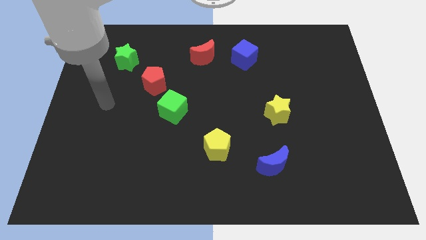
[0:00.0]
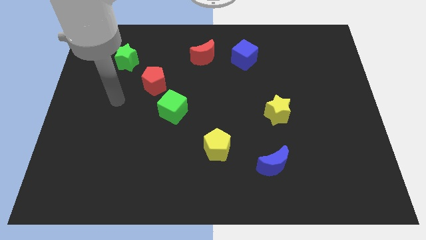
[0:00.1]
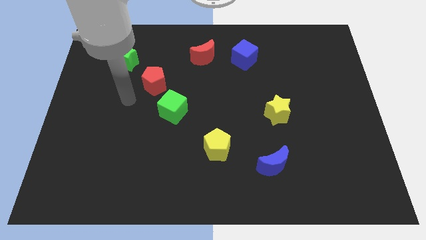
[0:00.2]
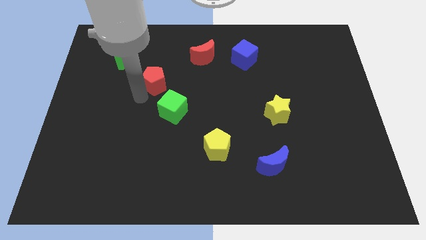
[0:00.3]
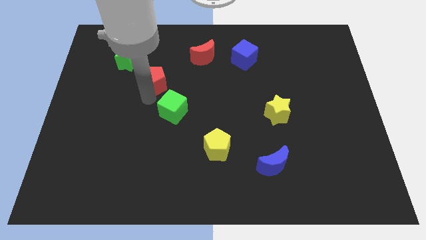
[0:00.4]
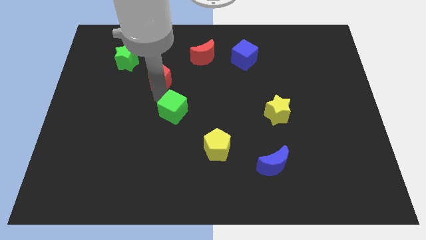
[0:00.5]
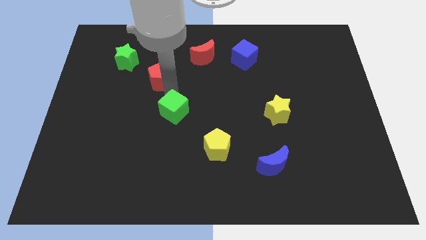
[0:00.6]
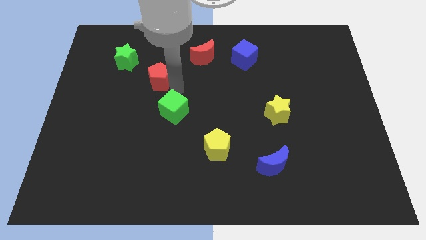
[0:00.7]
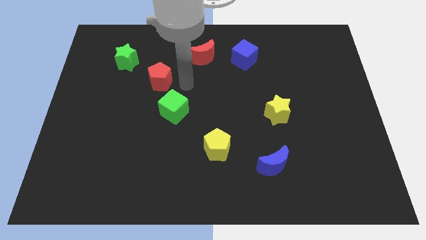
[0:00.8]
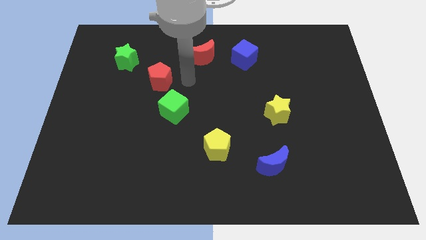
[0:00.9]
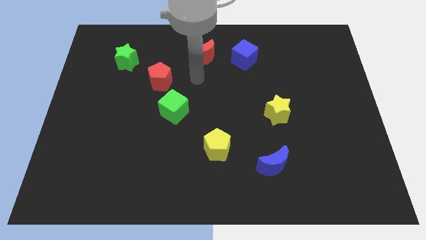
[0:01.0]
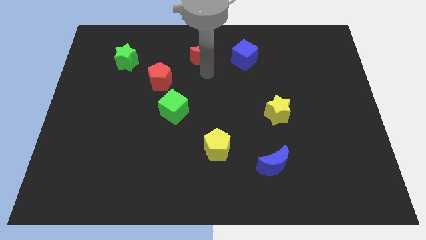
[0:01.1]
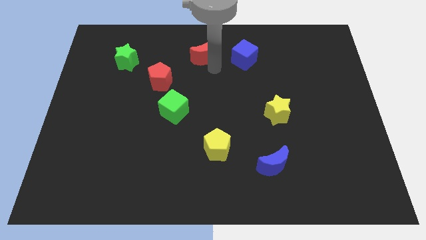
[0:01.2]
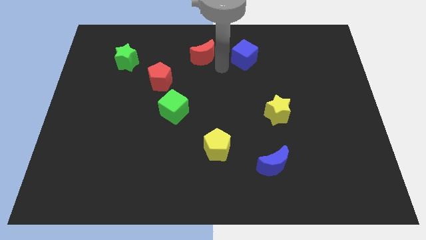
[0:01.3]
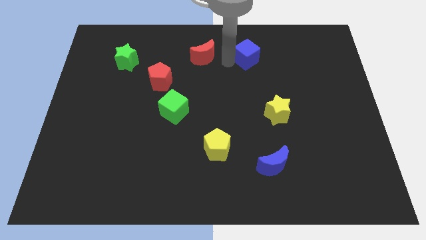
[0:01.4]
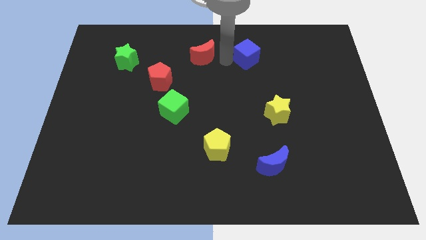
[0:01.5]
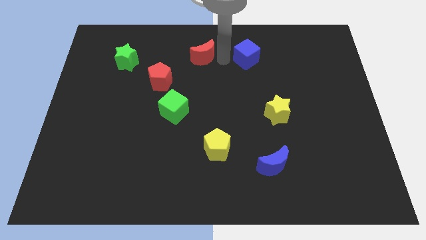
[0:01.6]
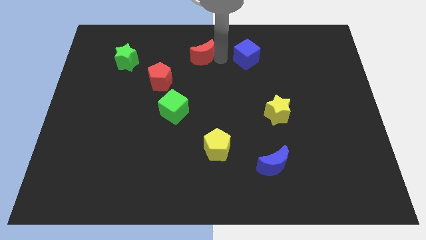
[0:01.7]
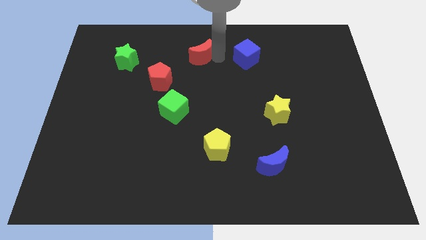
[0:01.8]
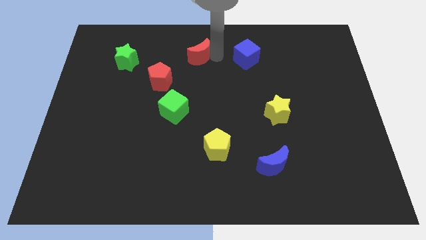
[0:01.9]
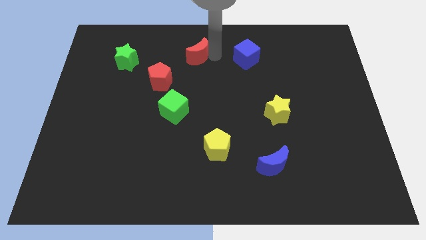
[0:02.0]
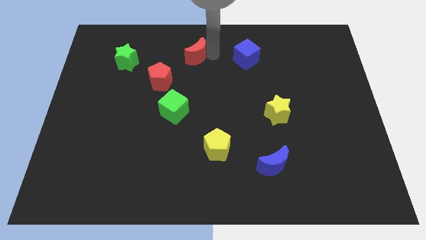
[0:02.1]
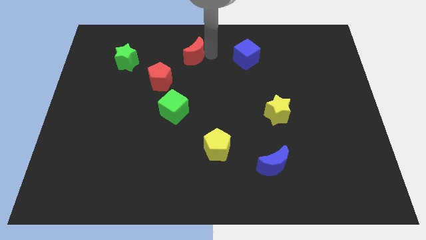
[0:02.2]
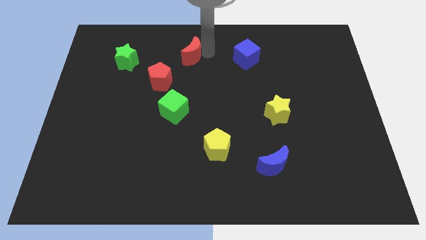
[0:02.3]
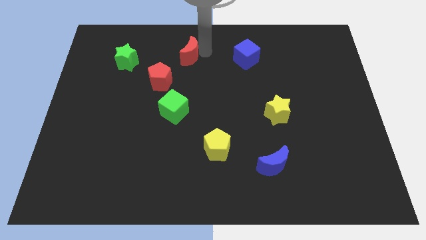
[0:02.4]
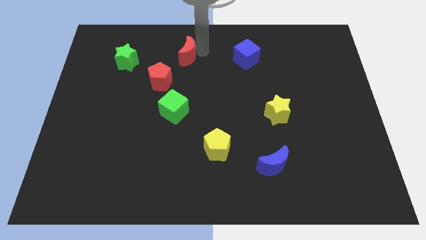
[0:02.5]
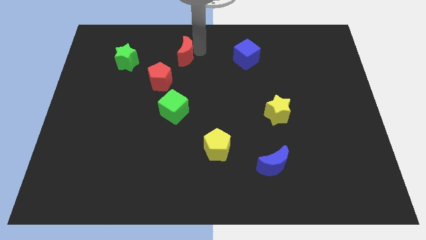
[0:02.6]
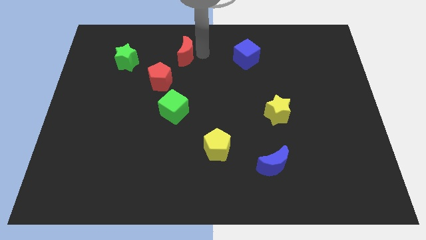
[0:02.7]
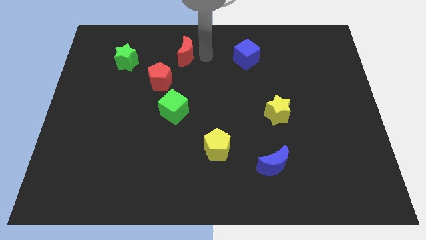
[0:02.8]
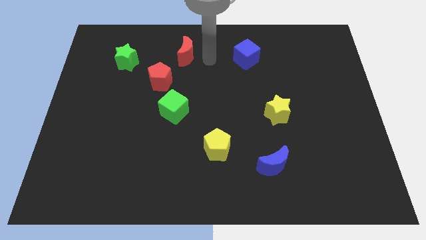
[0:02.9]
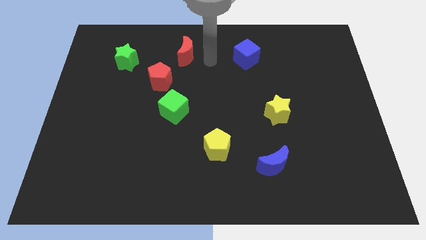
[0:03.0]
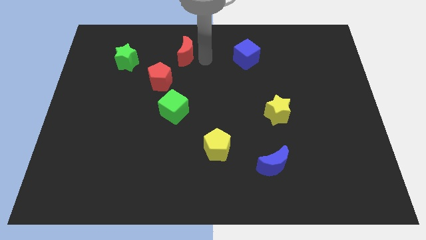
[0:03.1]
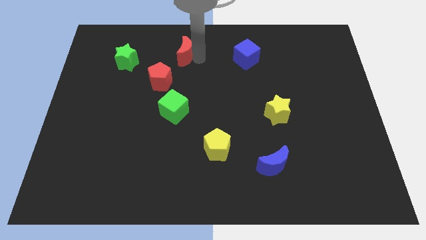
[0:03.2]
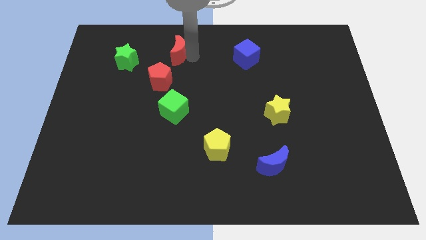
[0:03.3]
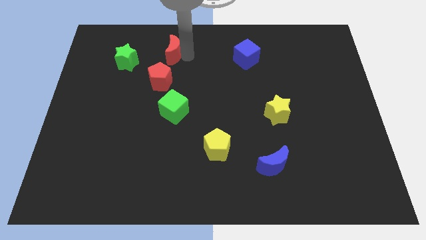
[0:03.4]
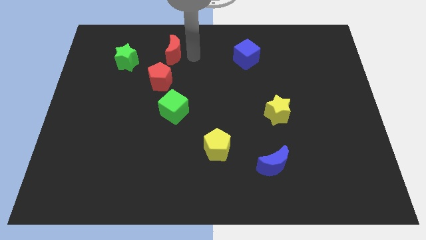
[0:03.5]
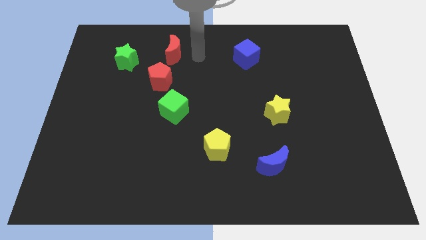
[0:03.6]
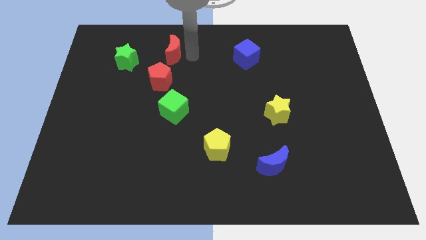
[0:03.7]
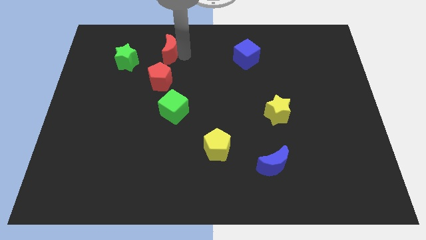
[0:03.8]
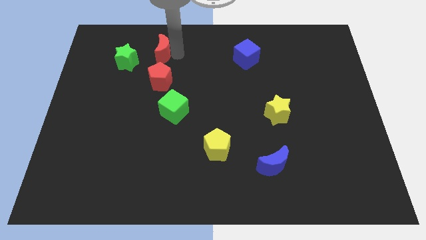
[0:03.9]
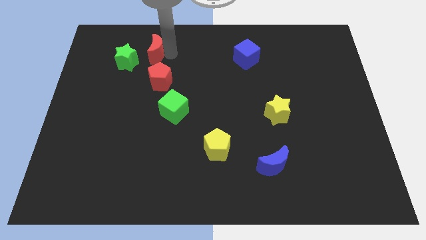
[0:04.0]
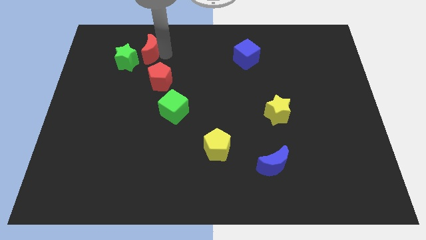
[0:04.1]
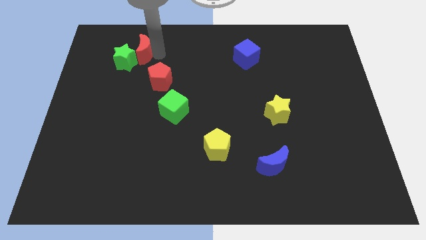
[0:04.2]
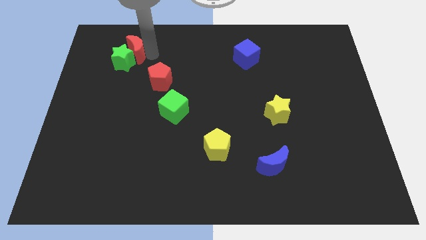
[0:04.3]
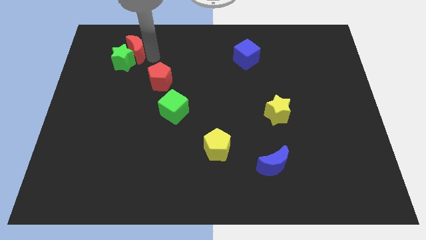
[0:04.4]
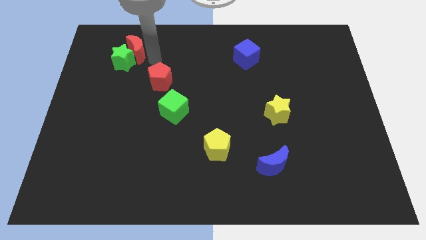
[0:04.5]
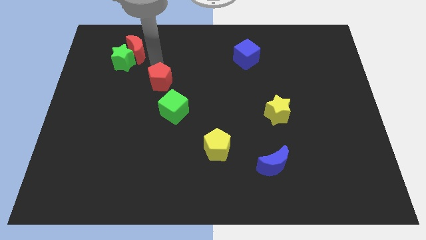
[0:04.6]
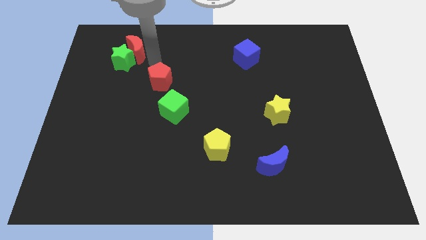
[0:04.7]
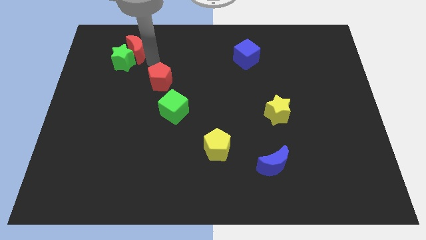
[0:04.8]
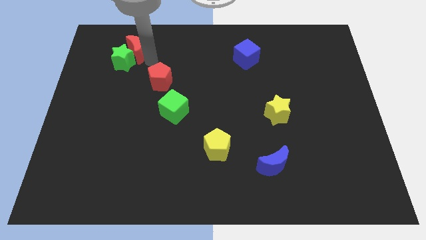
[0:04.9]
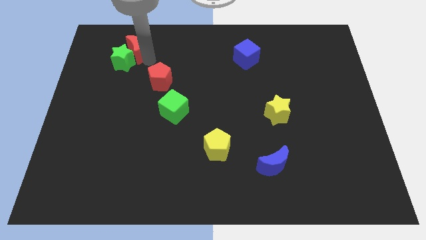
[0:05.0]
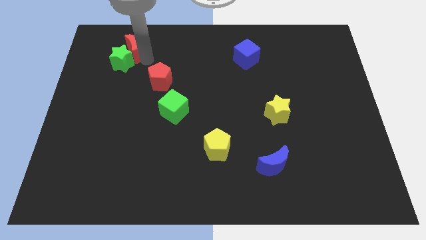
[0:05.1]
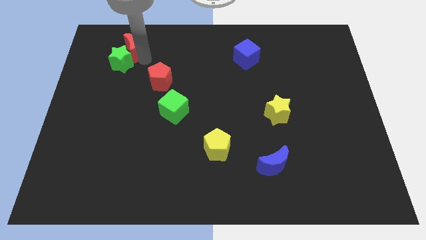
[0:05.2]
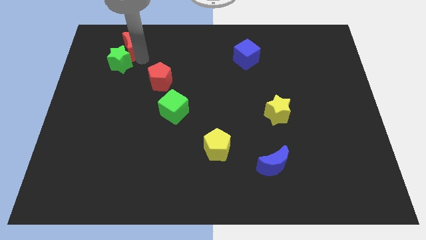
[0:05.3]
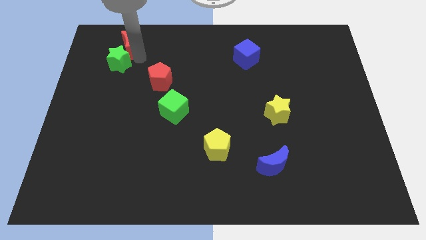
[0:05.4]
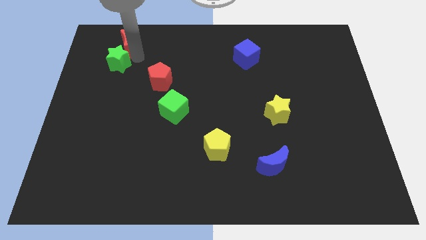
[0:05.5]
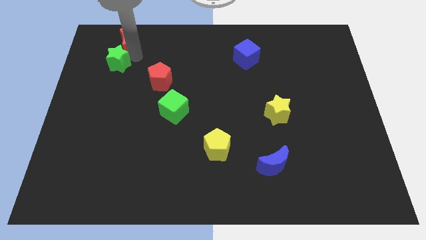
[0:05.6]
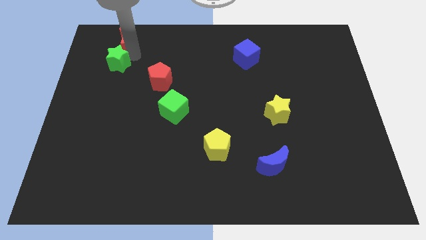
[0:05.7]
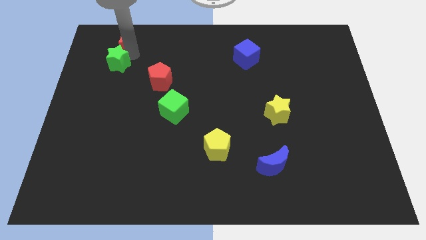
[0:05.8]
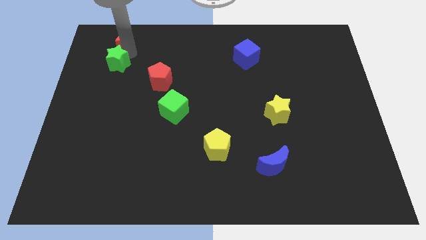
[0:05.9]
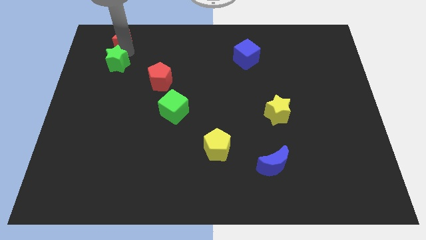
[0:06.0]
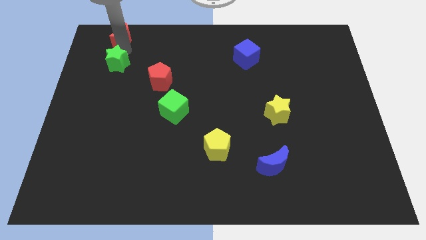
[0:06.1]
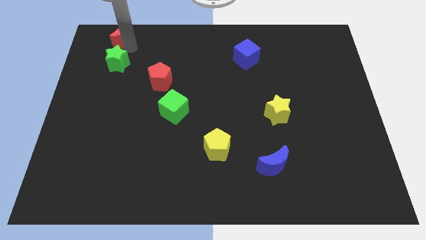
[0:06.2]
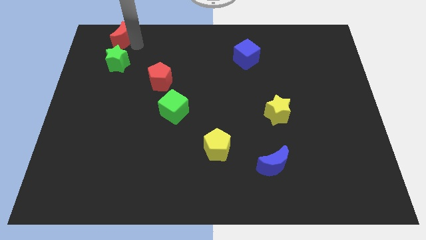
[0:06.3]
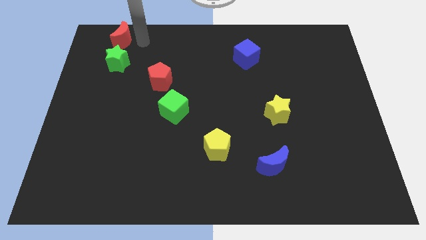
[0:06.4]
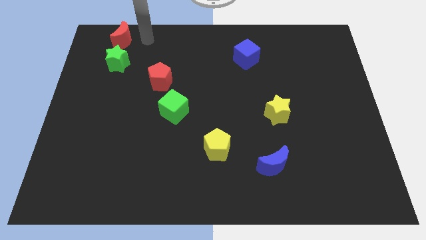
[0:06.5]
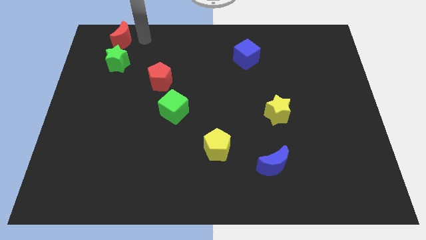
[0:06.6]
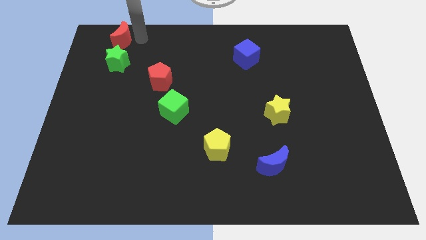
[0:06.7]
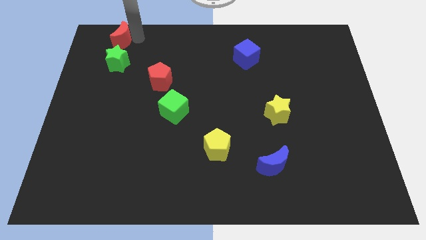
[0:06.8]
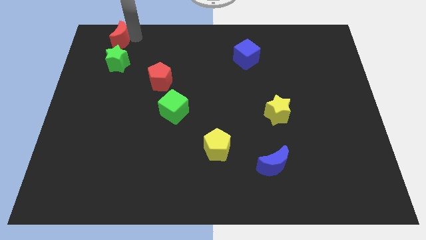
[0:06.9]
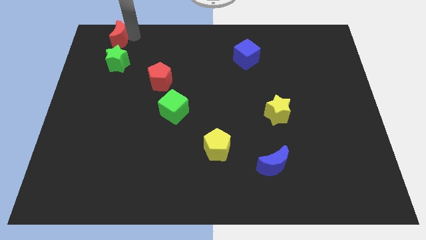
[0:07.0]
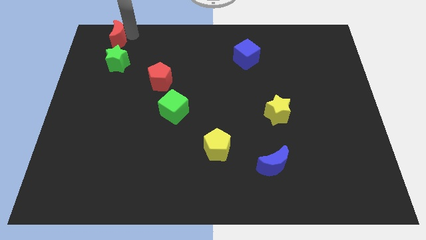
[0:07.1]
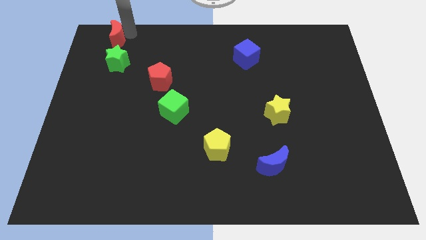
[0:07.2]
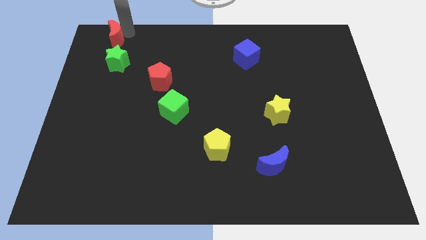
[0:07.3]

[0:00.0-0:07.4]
slide the red moon to the top left of the board
